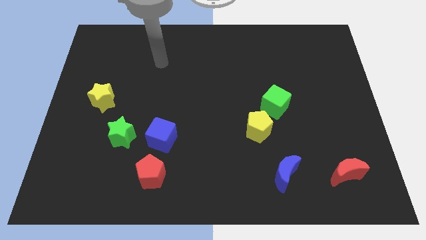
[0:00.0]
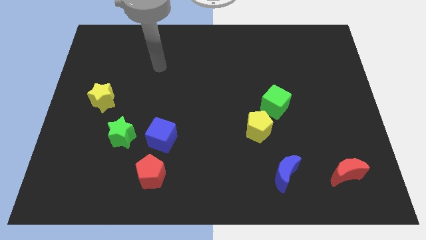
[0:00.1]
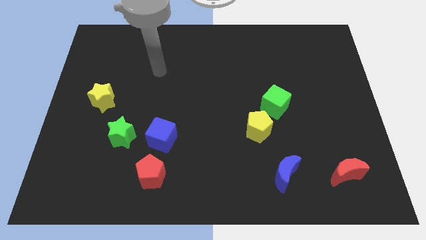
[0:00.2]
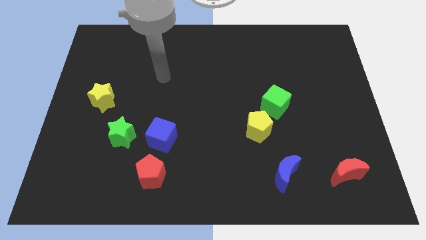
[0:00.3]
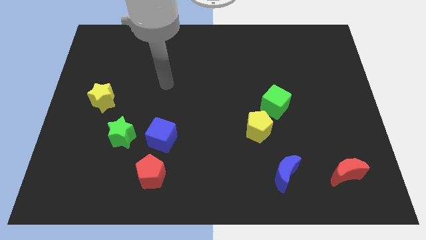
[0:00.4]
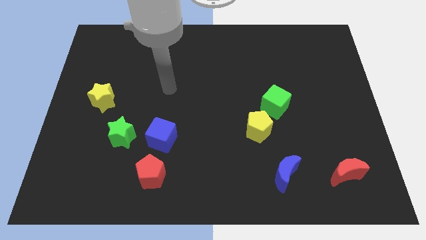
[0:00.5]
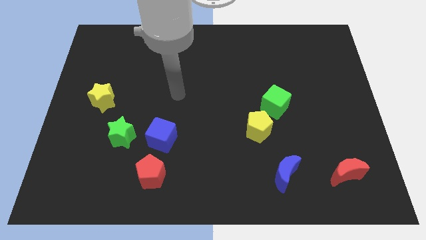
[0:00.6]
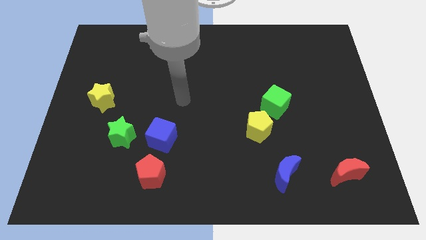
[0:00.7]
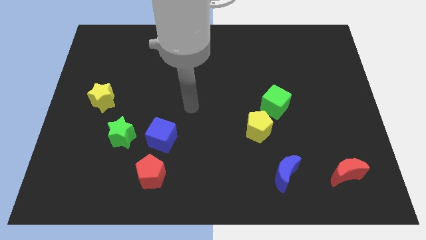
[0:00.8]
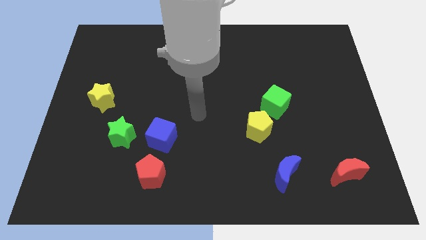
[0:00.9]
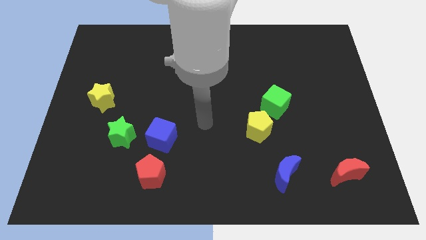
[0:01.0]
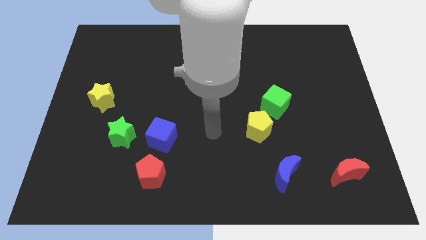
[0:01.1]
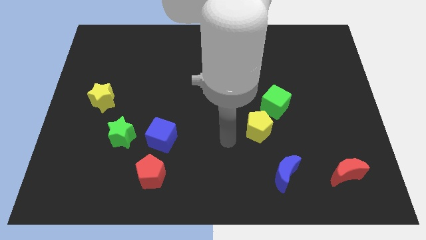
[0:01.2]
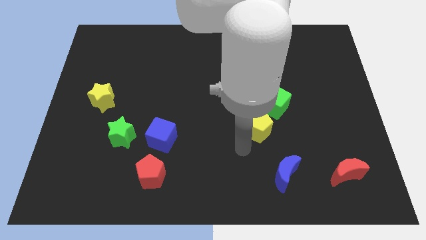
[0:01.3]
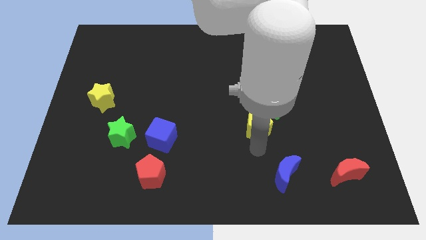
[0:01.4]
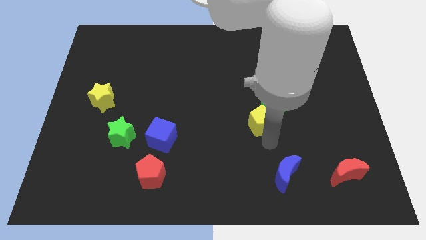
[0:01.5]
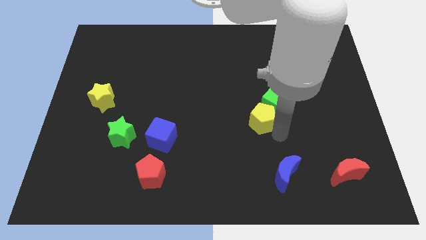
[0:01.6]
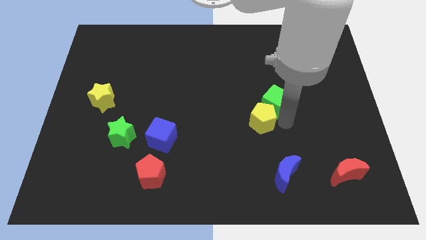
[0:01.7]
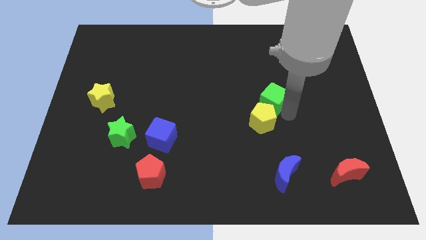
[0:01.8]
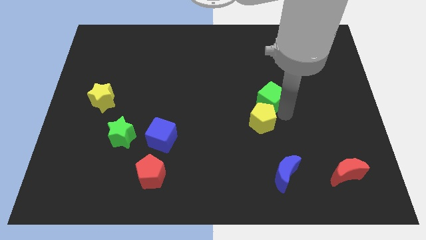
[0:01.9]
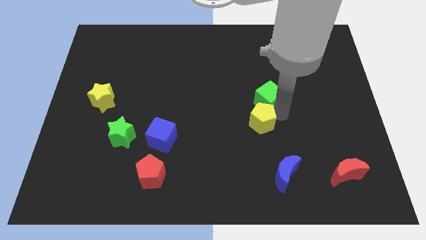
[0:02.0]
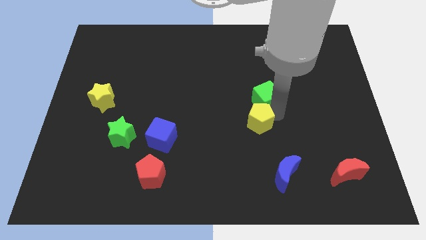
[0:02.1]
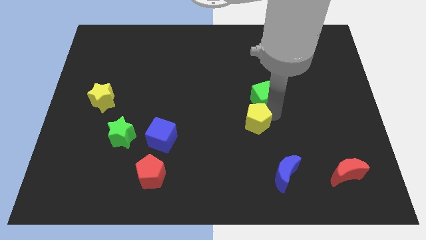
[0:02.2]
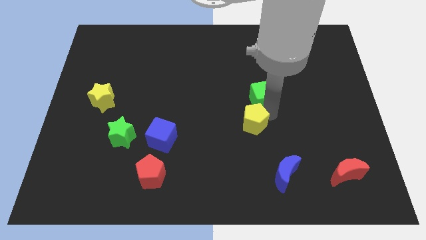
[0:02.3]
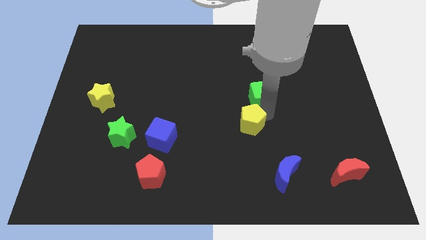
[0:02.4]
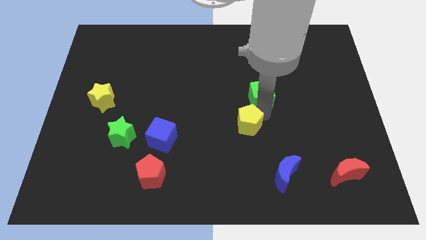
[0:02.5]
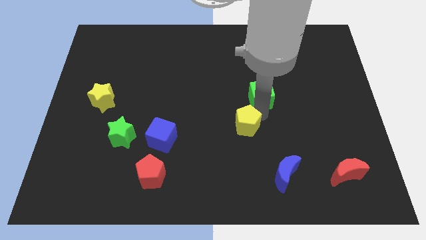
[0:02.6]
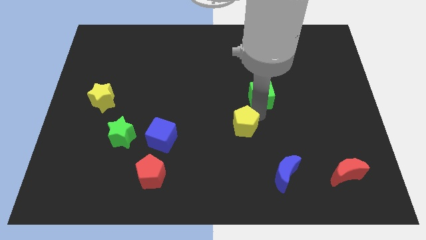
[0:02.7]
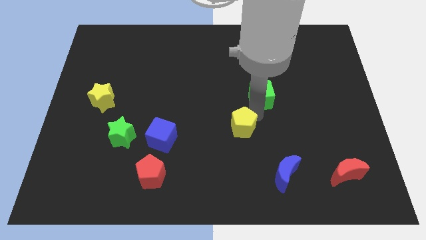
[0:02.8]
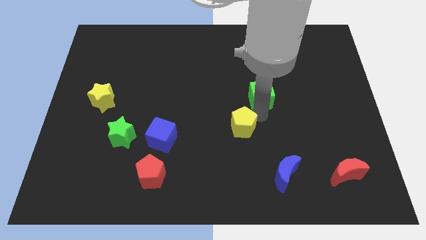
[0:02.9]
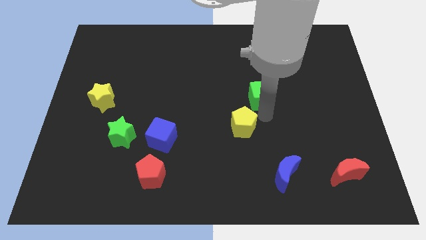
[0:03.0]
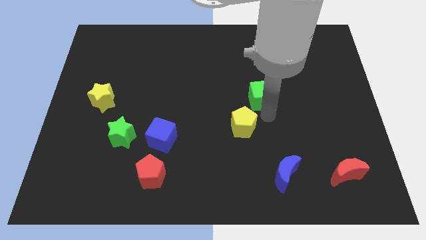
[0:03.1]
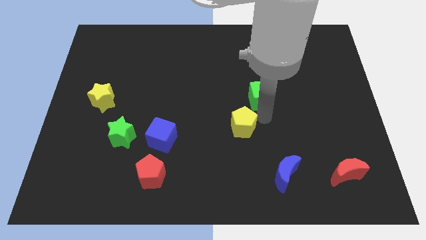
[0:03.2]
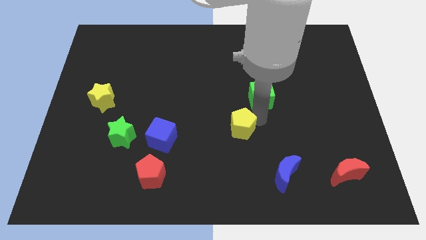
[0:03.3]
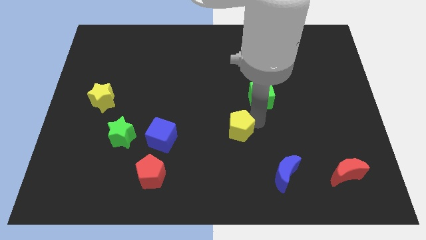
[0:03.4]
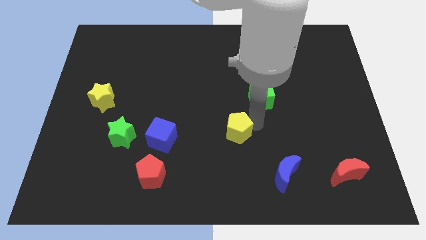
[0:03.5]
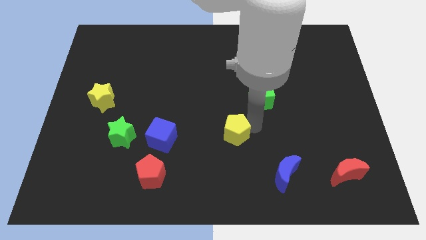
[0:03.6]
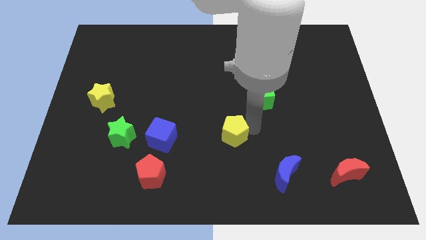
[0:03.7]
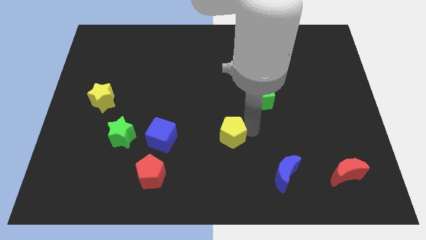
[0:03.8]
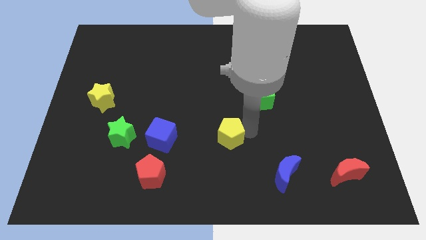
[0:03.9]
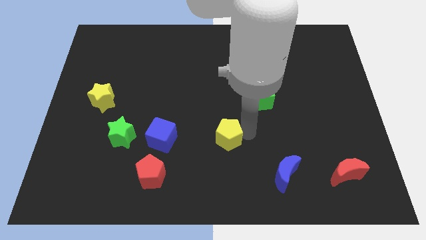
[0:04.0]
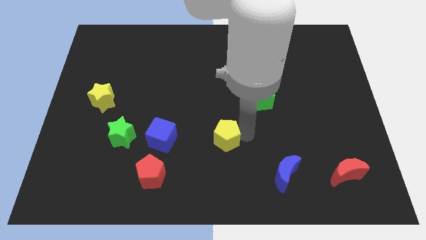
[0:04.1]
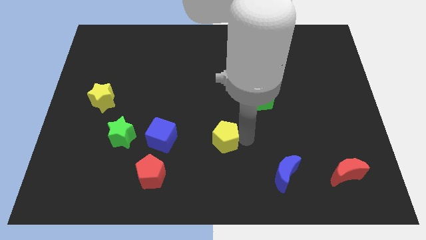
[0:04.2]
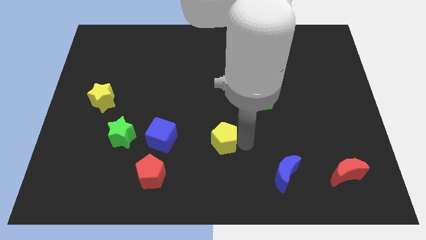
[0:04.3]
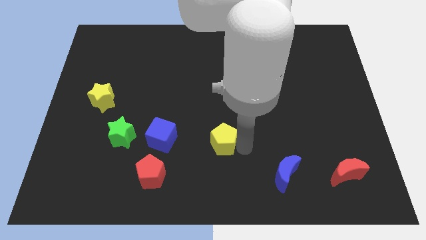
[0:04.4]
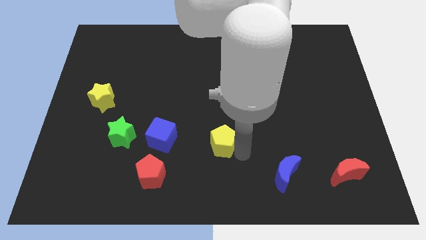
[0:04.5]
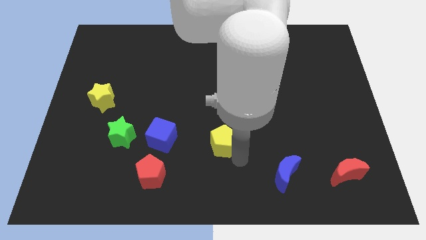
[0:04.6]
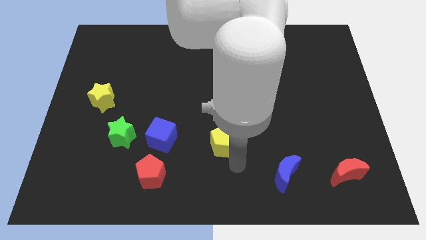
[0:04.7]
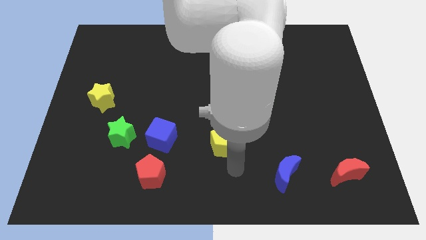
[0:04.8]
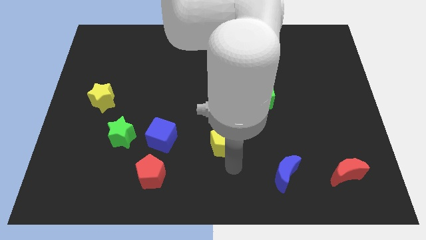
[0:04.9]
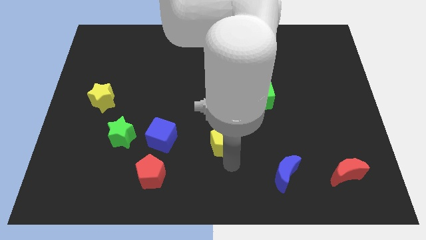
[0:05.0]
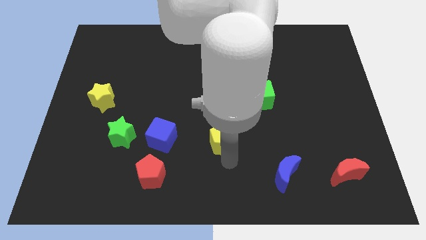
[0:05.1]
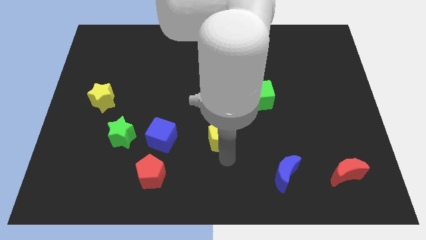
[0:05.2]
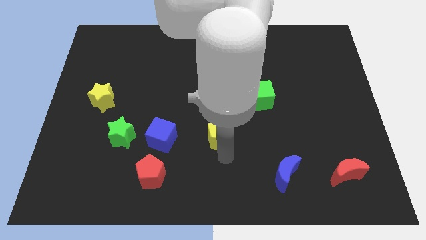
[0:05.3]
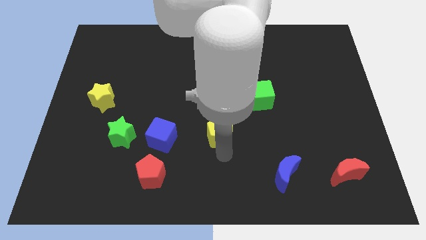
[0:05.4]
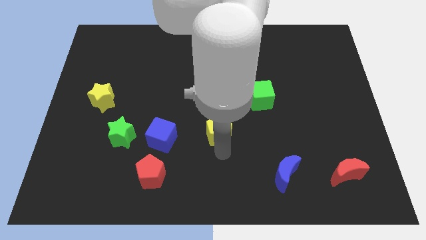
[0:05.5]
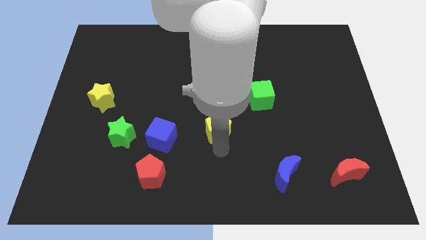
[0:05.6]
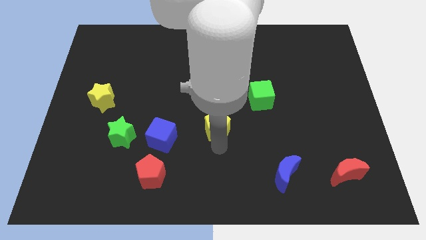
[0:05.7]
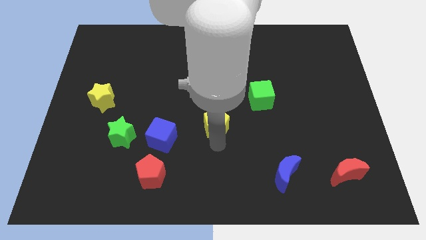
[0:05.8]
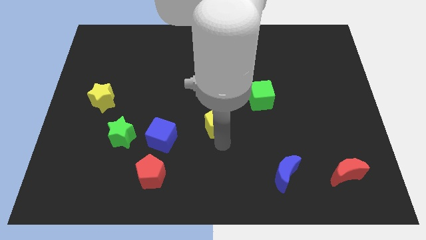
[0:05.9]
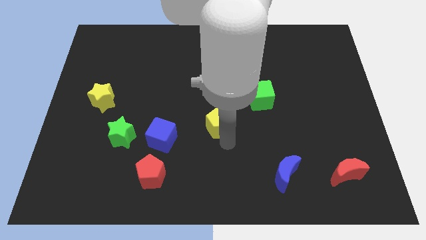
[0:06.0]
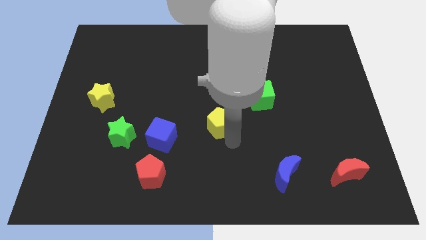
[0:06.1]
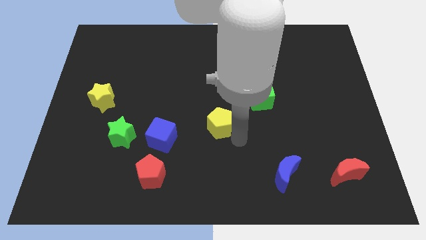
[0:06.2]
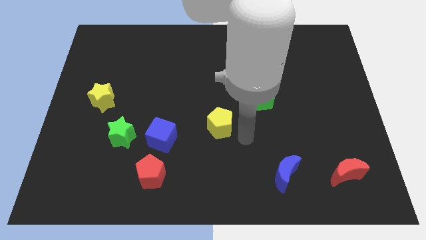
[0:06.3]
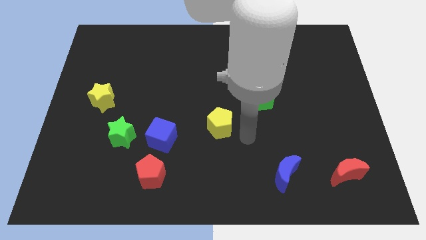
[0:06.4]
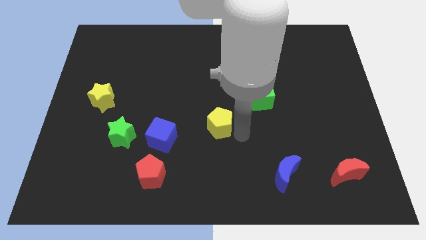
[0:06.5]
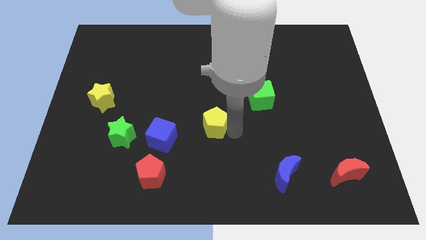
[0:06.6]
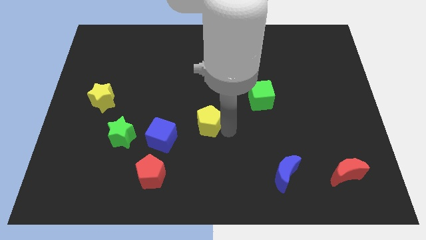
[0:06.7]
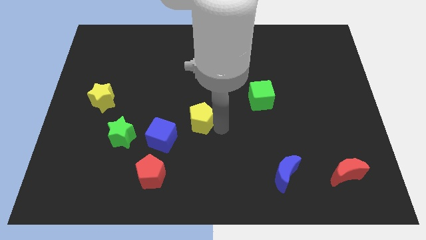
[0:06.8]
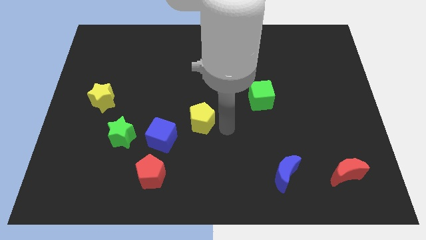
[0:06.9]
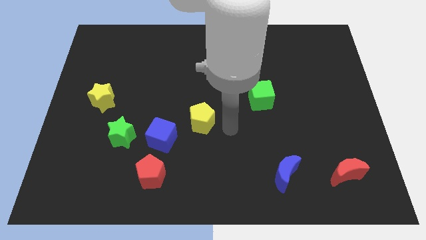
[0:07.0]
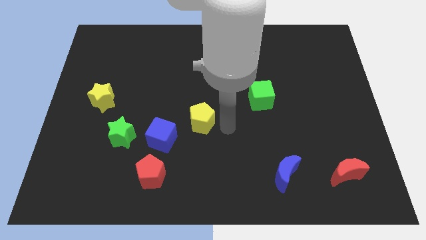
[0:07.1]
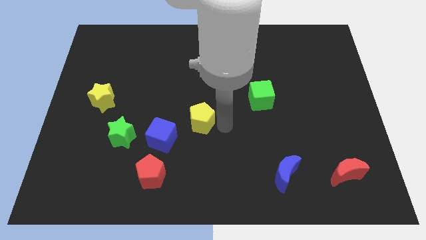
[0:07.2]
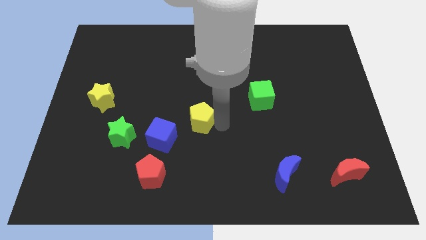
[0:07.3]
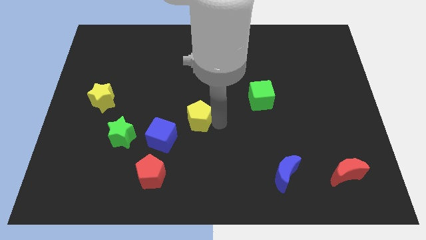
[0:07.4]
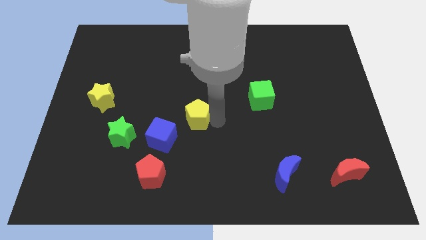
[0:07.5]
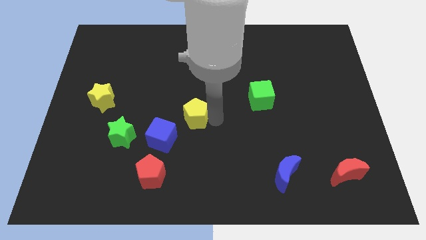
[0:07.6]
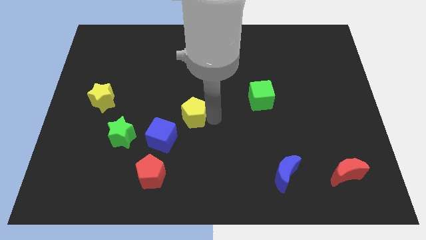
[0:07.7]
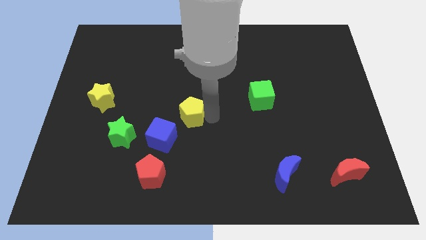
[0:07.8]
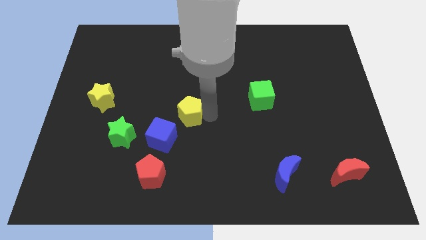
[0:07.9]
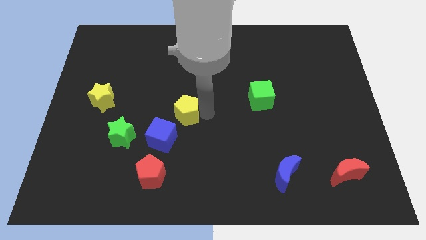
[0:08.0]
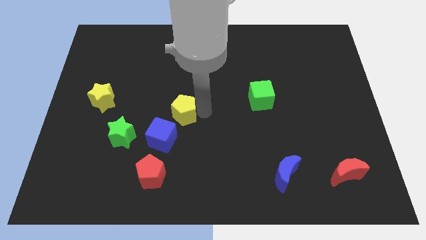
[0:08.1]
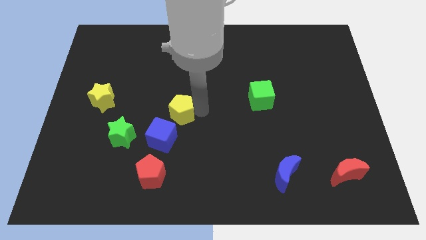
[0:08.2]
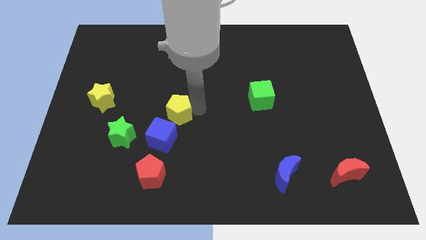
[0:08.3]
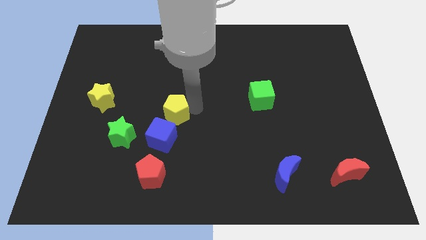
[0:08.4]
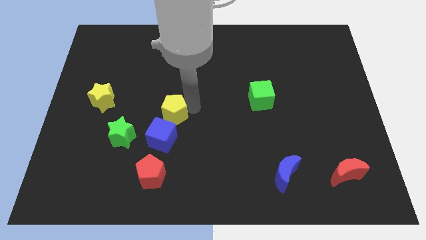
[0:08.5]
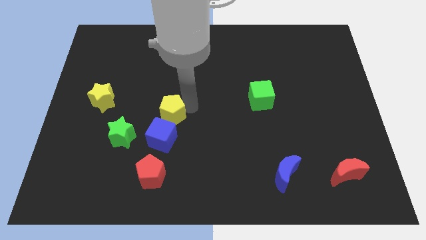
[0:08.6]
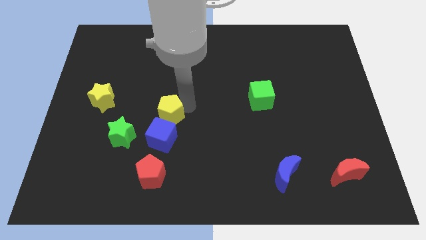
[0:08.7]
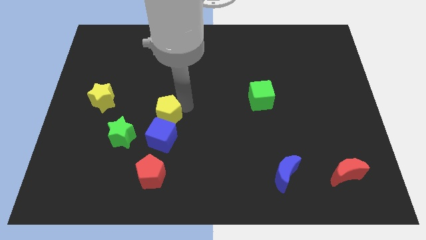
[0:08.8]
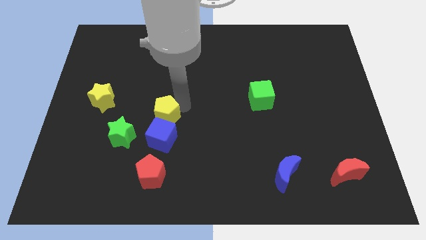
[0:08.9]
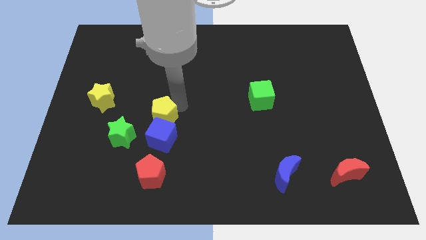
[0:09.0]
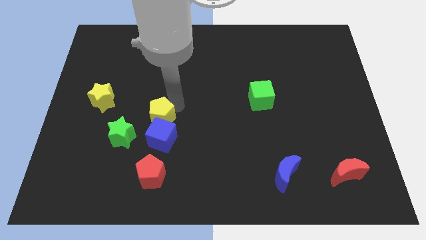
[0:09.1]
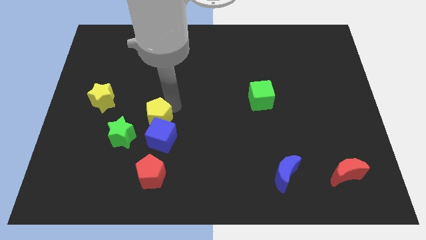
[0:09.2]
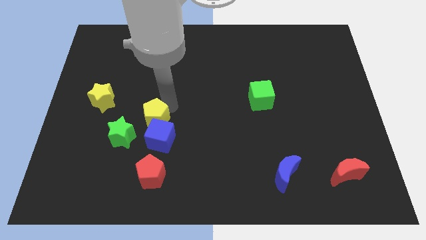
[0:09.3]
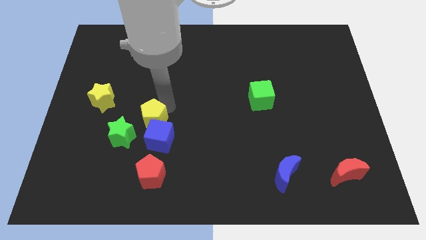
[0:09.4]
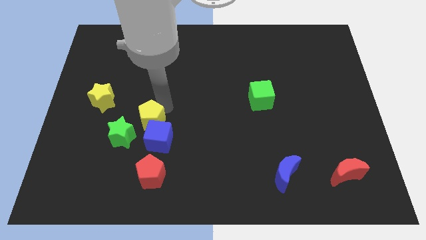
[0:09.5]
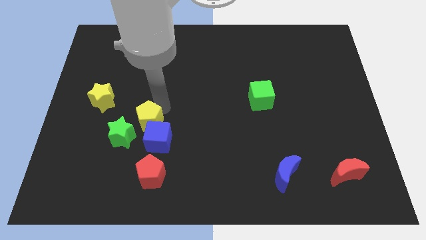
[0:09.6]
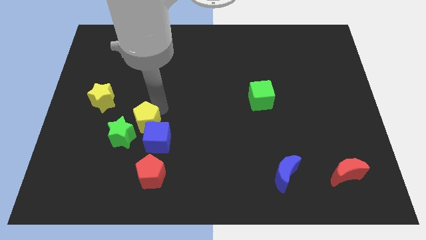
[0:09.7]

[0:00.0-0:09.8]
move the yellow pentagon towards the green star
